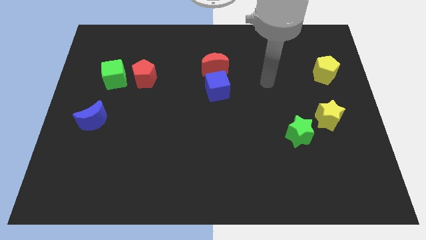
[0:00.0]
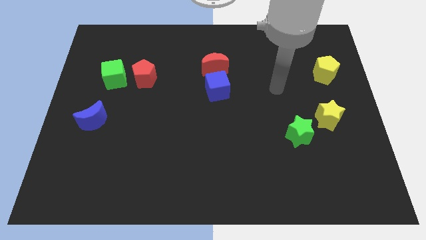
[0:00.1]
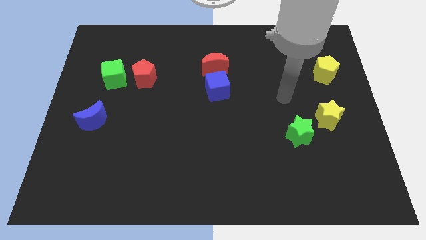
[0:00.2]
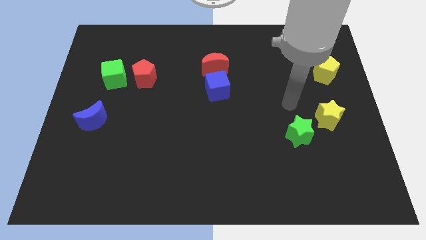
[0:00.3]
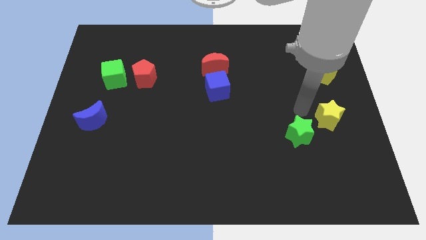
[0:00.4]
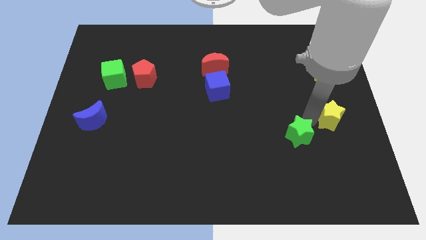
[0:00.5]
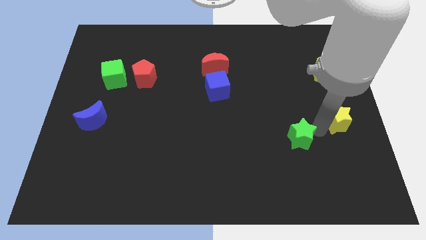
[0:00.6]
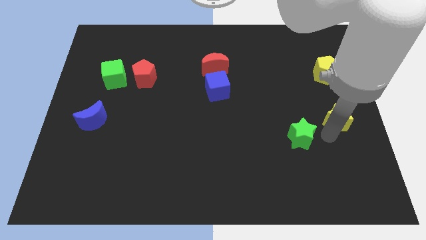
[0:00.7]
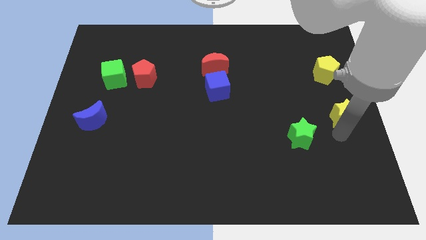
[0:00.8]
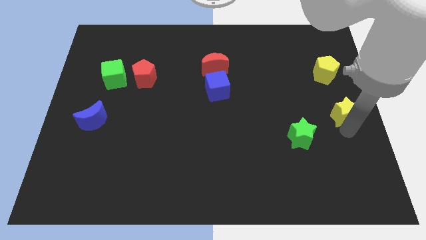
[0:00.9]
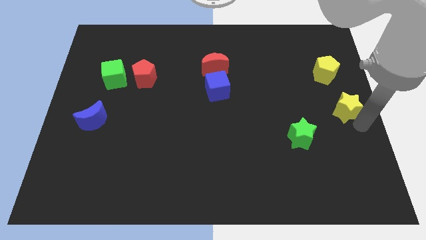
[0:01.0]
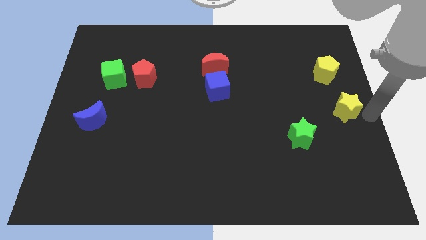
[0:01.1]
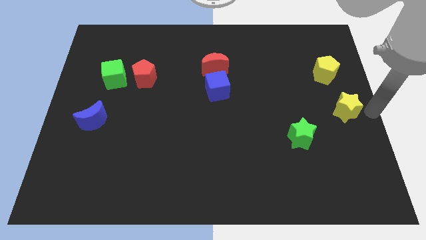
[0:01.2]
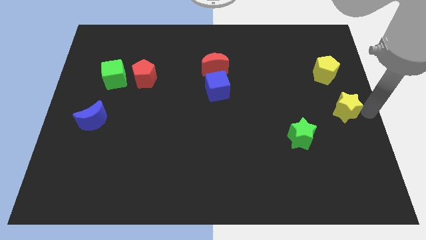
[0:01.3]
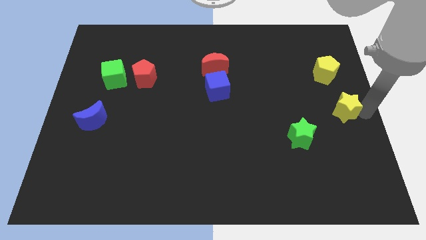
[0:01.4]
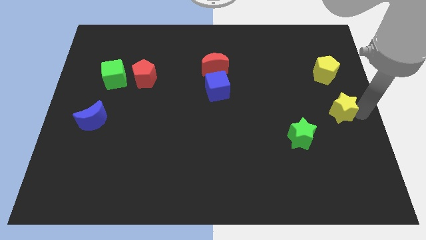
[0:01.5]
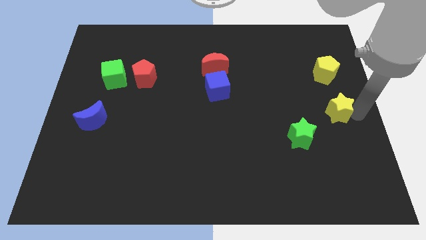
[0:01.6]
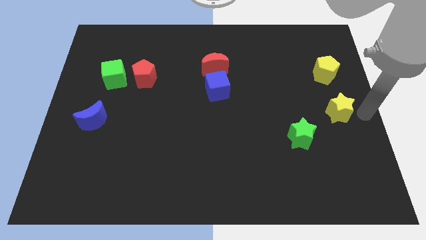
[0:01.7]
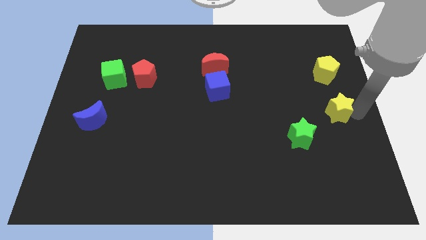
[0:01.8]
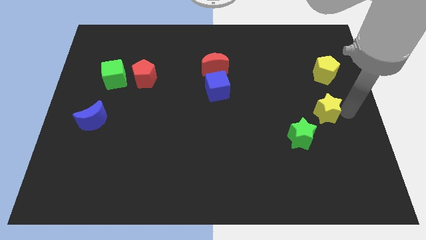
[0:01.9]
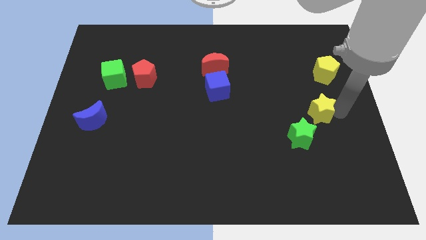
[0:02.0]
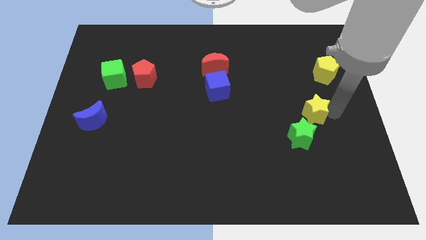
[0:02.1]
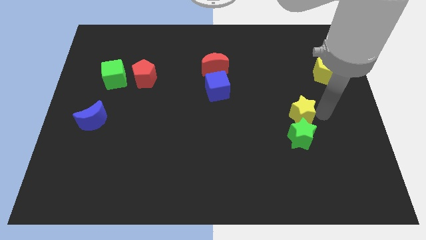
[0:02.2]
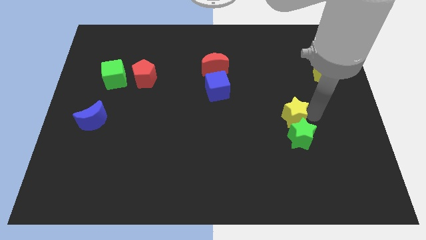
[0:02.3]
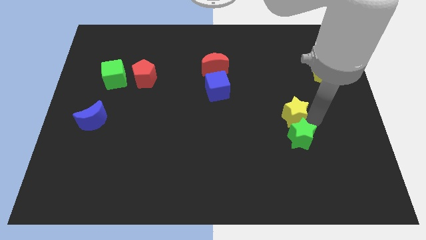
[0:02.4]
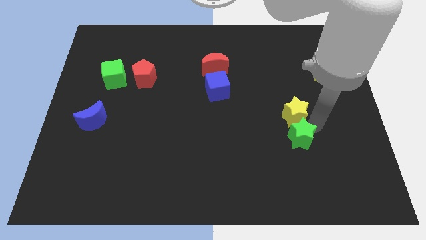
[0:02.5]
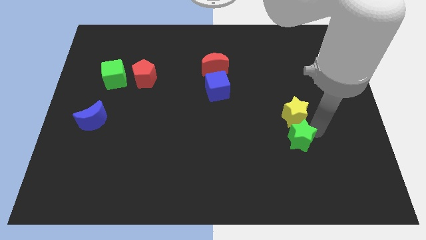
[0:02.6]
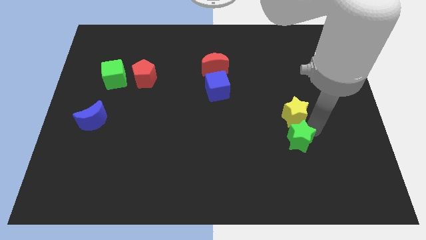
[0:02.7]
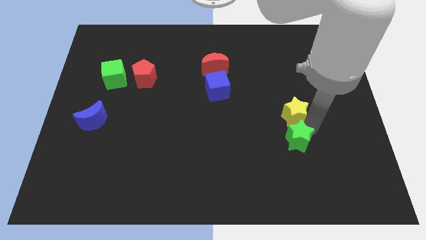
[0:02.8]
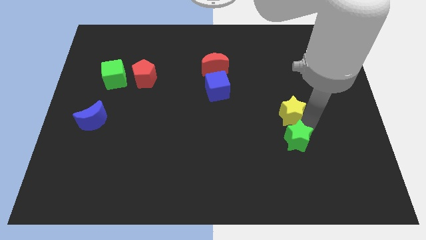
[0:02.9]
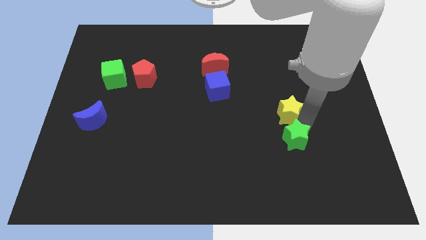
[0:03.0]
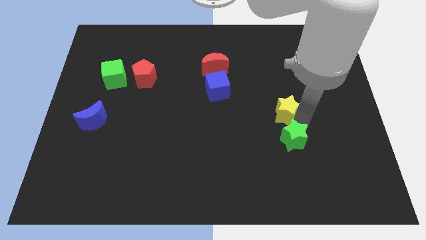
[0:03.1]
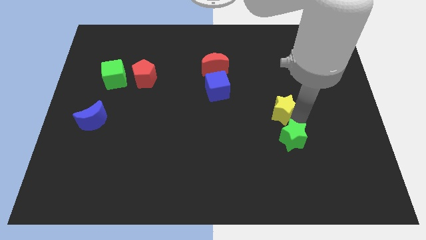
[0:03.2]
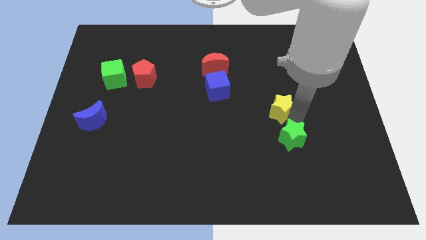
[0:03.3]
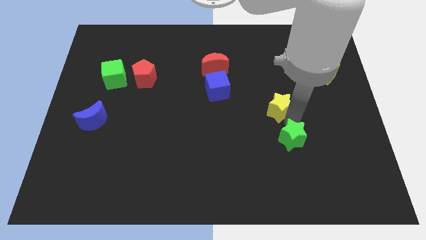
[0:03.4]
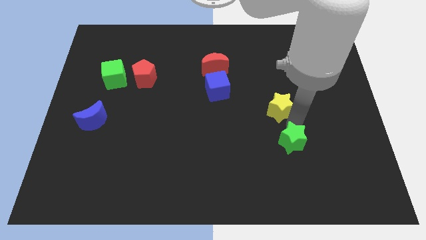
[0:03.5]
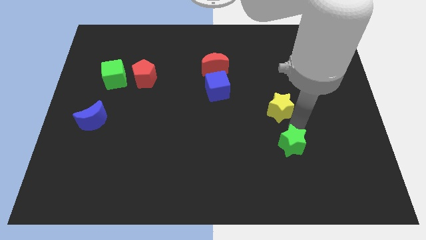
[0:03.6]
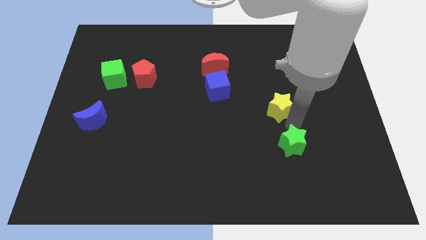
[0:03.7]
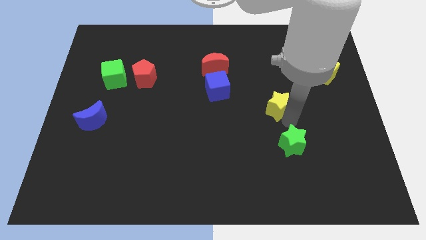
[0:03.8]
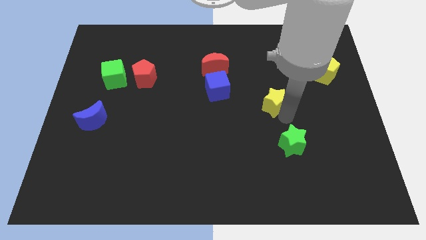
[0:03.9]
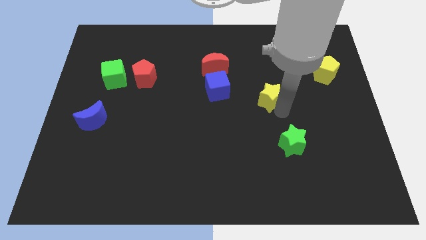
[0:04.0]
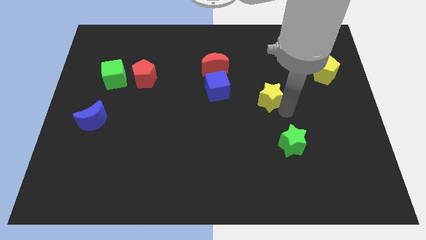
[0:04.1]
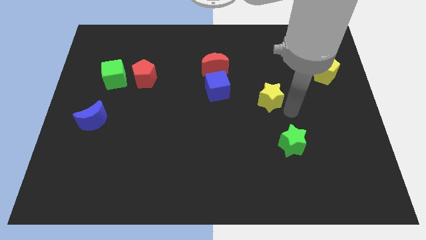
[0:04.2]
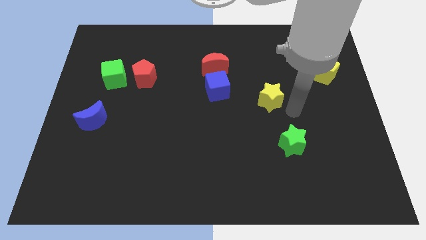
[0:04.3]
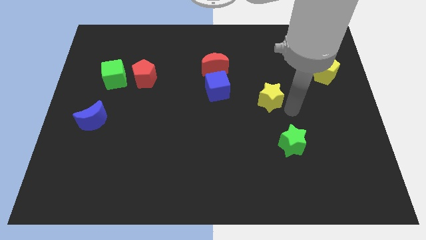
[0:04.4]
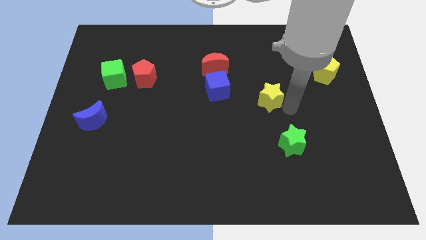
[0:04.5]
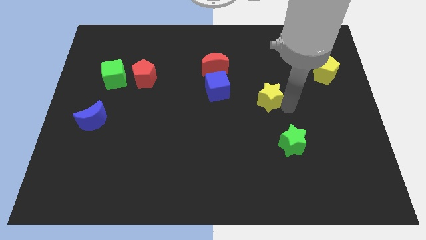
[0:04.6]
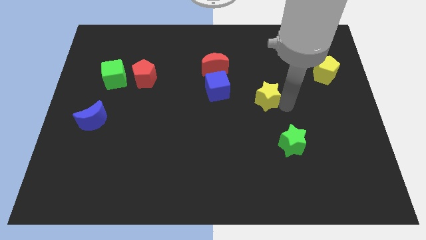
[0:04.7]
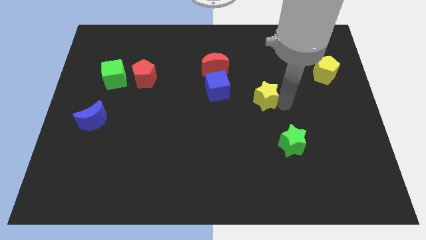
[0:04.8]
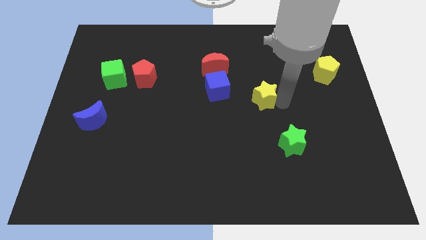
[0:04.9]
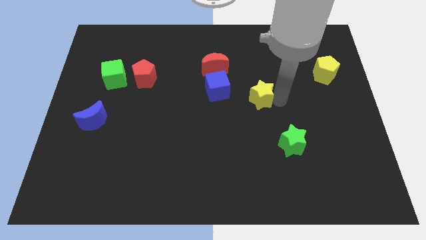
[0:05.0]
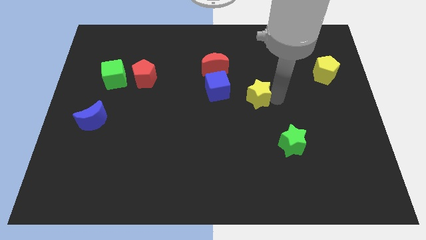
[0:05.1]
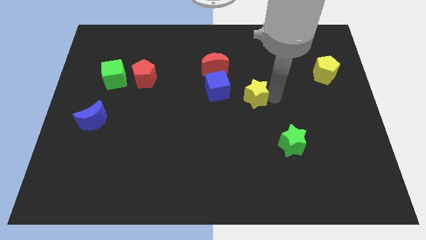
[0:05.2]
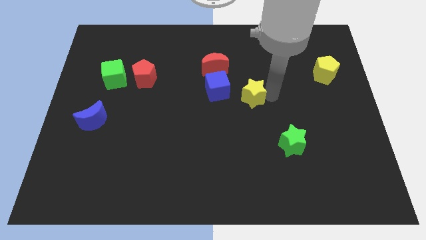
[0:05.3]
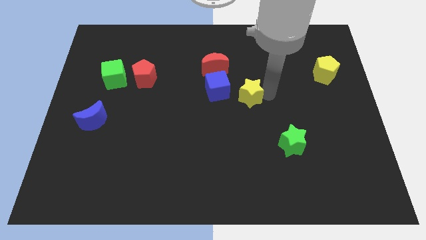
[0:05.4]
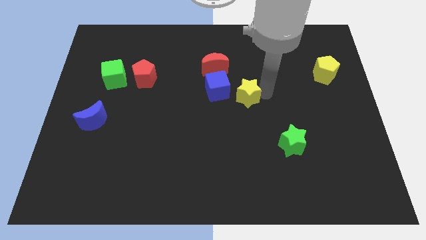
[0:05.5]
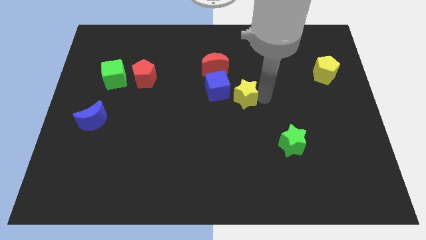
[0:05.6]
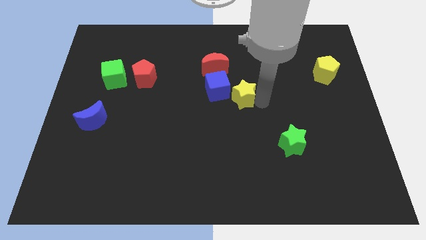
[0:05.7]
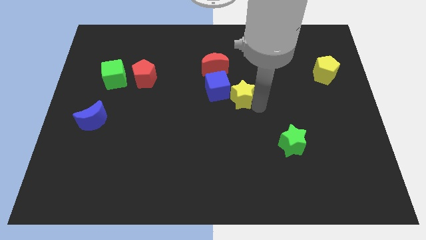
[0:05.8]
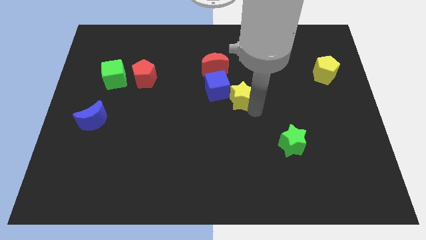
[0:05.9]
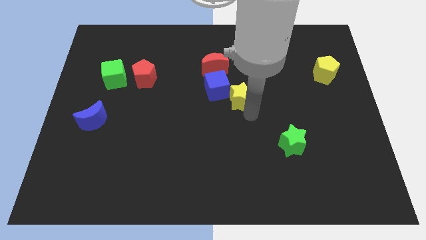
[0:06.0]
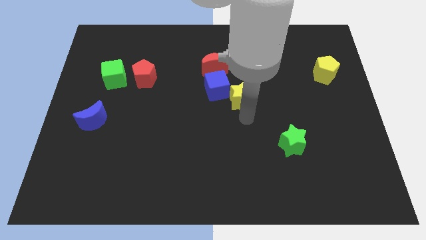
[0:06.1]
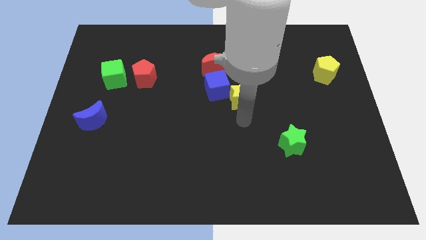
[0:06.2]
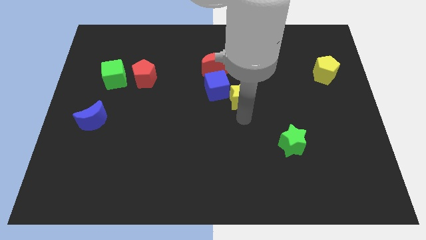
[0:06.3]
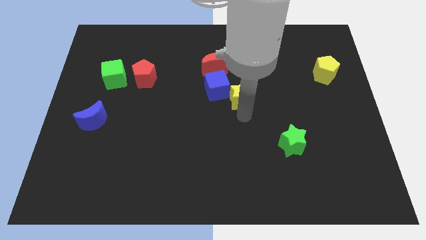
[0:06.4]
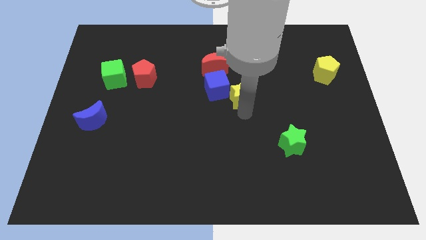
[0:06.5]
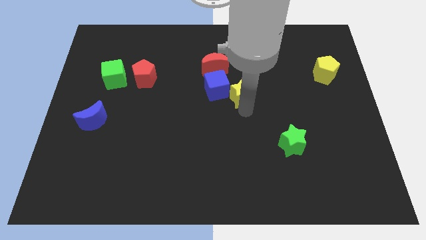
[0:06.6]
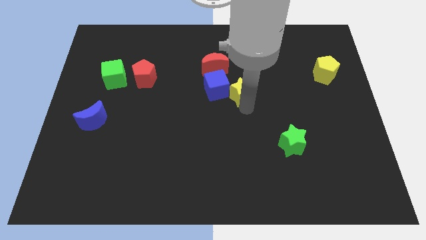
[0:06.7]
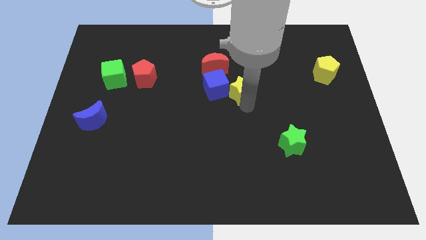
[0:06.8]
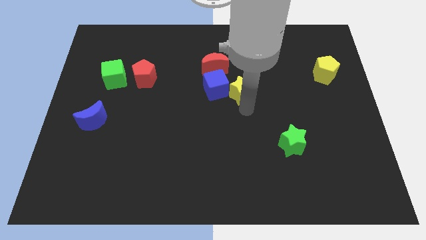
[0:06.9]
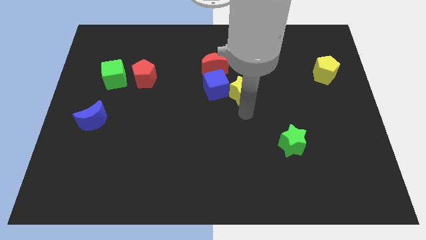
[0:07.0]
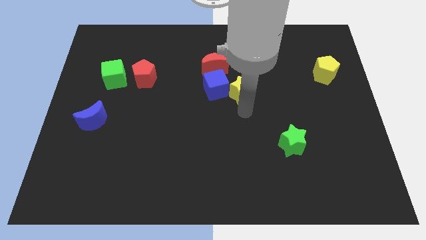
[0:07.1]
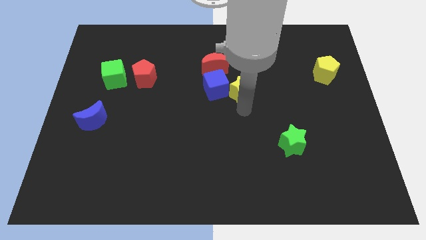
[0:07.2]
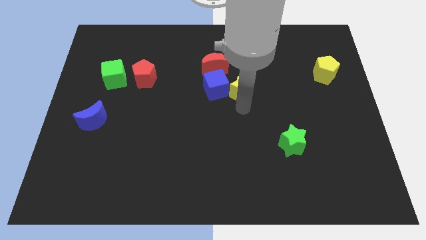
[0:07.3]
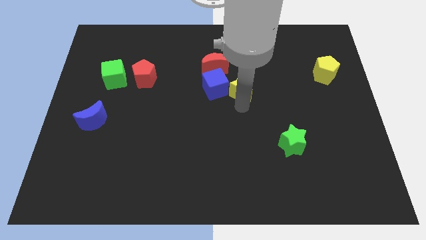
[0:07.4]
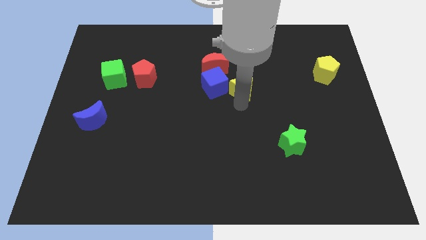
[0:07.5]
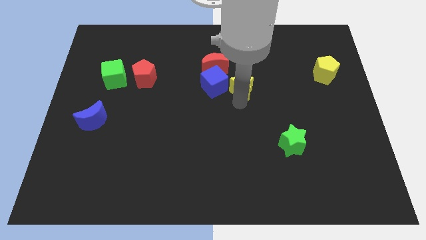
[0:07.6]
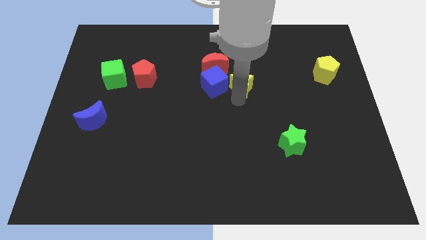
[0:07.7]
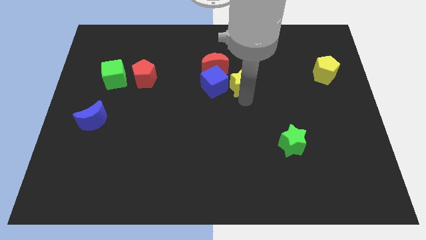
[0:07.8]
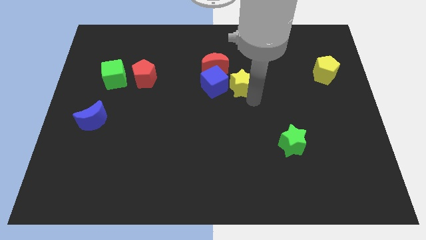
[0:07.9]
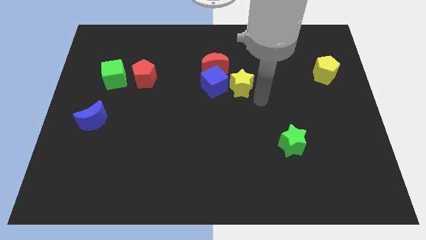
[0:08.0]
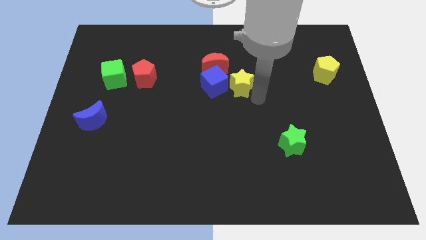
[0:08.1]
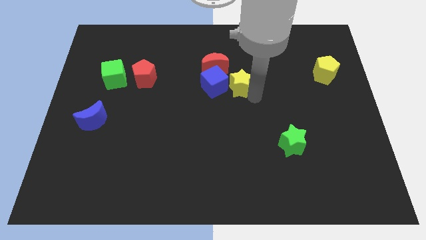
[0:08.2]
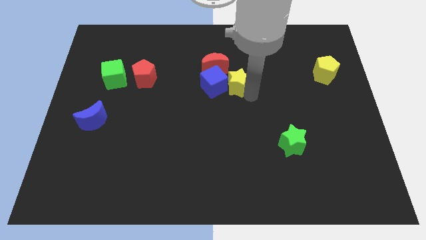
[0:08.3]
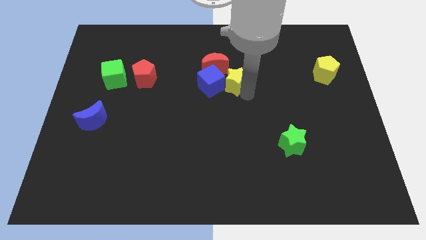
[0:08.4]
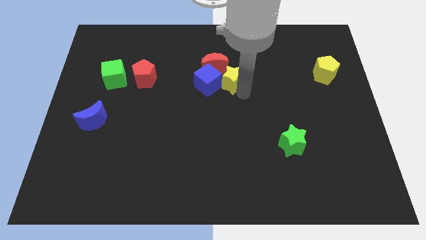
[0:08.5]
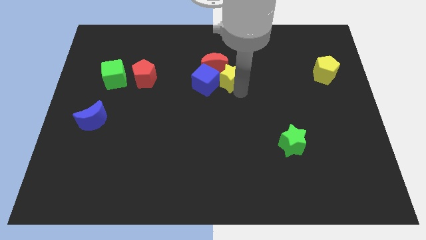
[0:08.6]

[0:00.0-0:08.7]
push the yellow star next to the red moon
